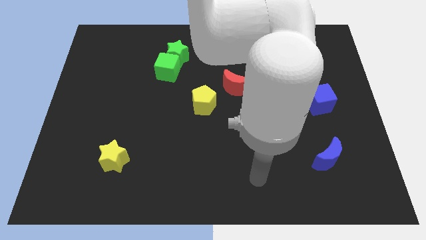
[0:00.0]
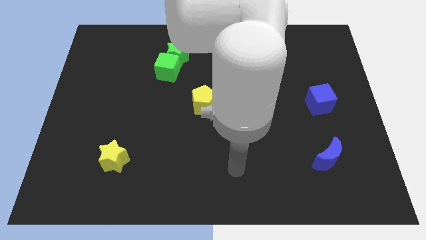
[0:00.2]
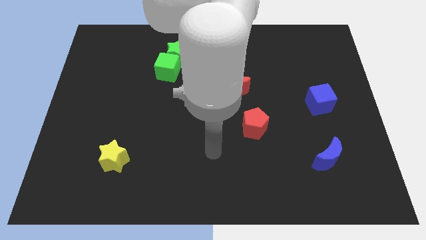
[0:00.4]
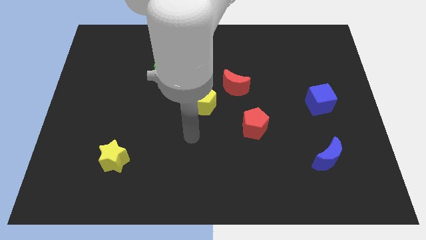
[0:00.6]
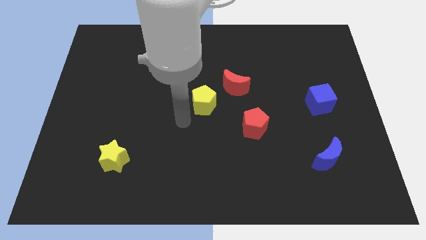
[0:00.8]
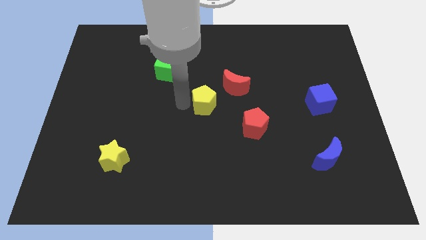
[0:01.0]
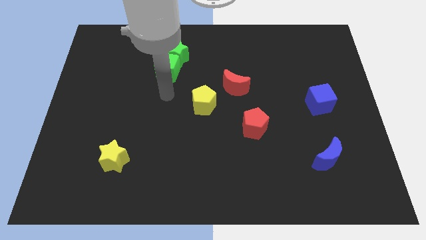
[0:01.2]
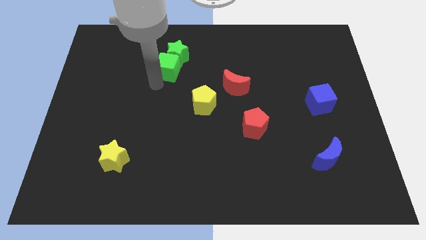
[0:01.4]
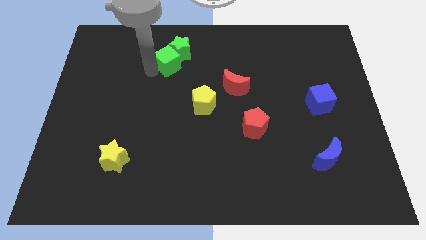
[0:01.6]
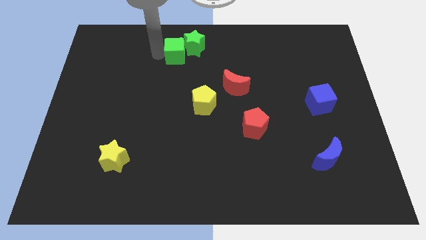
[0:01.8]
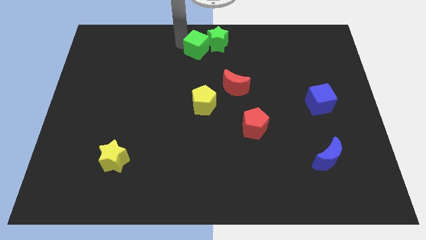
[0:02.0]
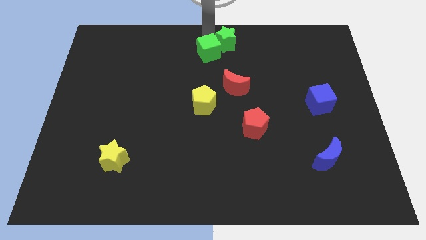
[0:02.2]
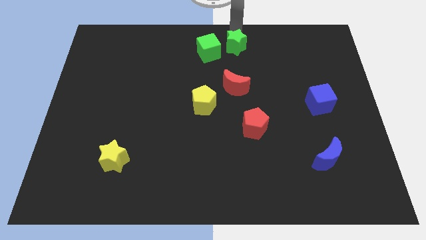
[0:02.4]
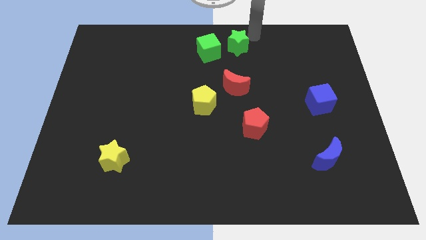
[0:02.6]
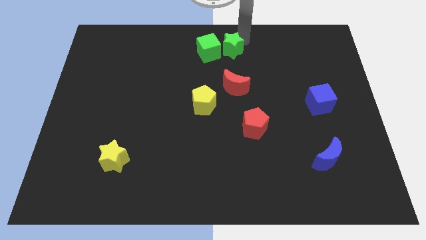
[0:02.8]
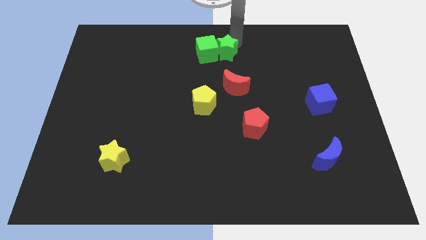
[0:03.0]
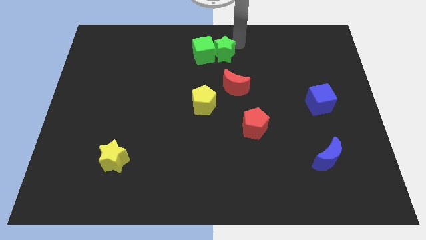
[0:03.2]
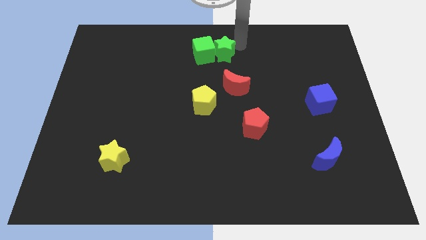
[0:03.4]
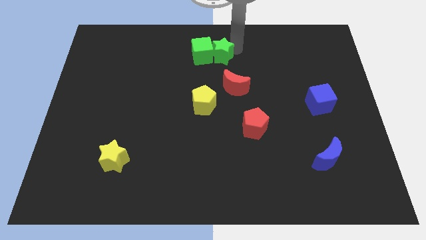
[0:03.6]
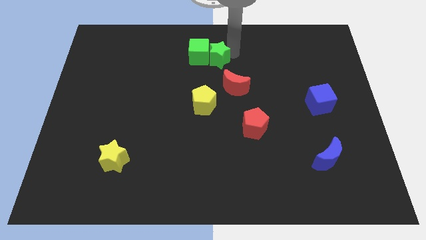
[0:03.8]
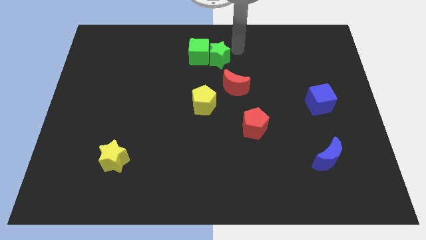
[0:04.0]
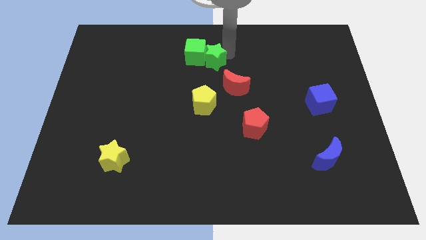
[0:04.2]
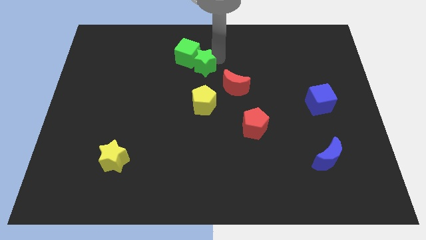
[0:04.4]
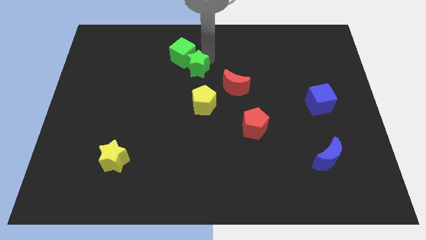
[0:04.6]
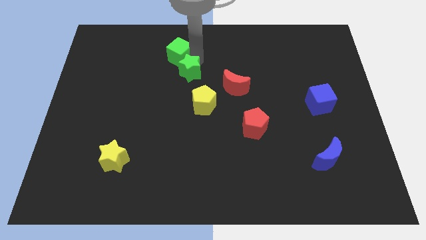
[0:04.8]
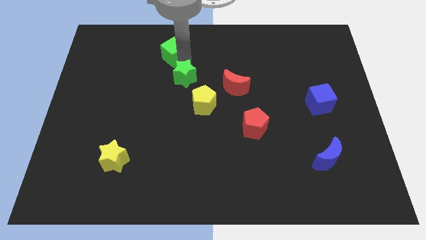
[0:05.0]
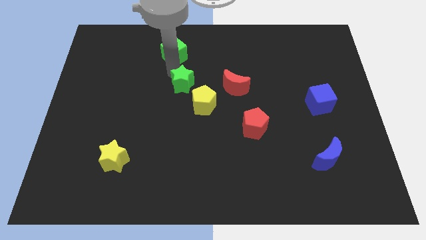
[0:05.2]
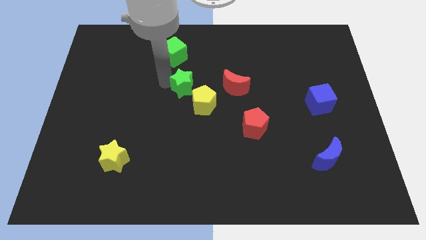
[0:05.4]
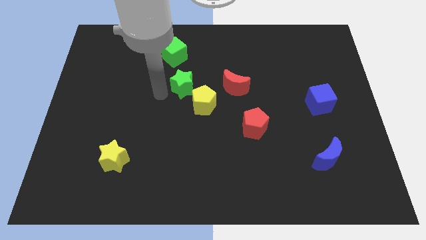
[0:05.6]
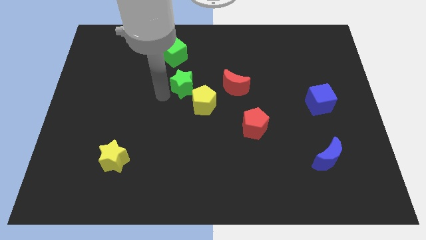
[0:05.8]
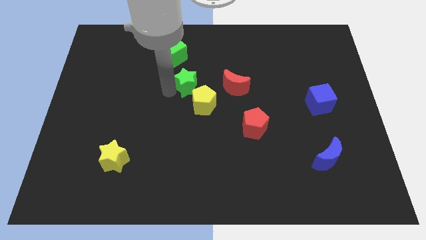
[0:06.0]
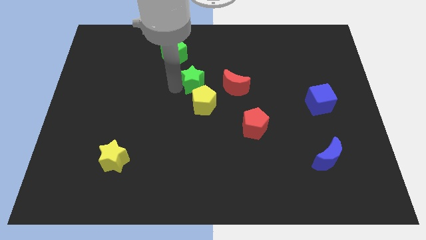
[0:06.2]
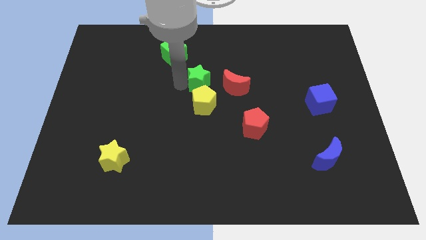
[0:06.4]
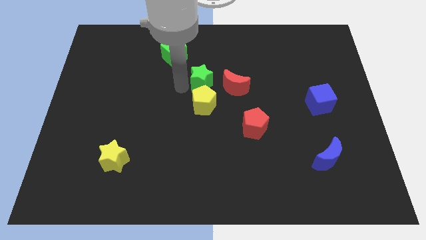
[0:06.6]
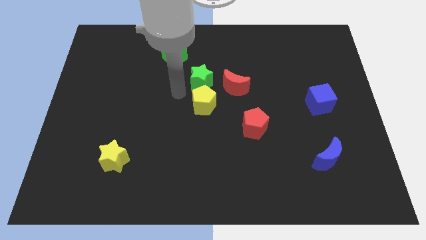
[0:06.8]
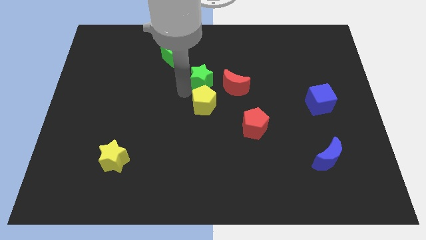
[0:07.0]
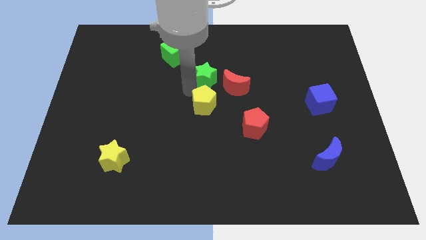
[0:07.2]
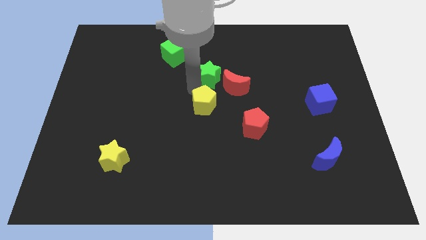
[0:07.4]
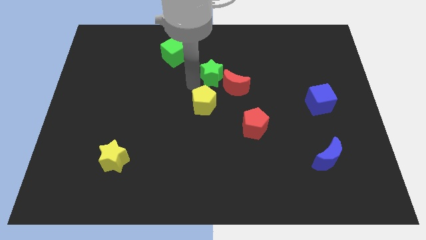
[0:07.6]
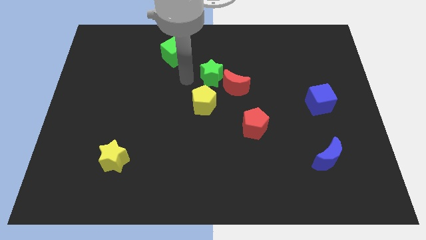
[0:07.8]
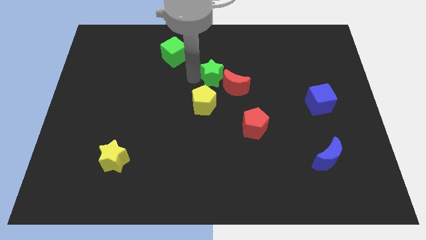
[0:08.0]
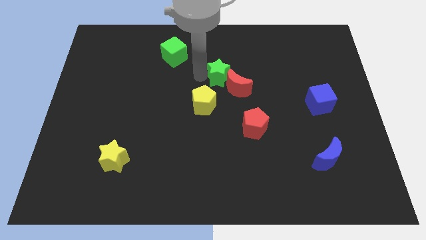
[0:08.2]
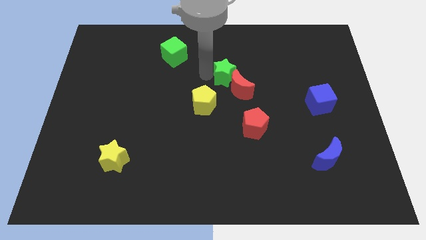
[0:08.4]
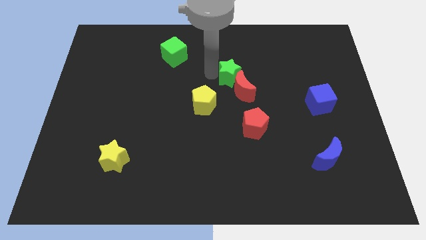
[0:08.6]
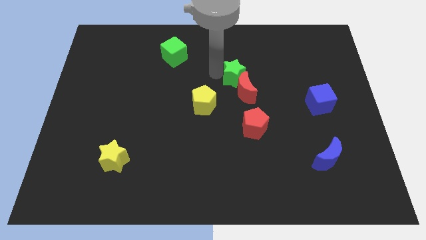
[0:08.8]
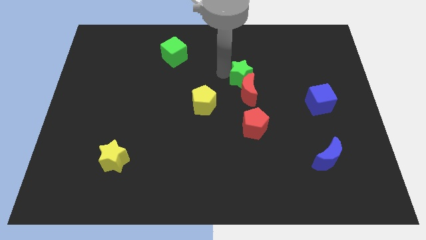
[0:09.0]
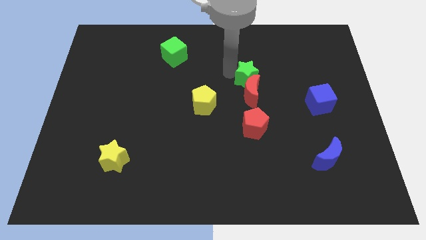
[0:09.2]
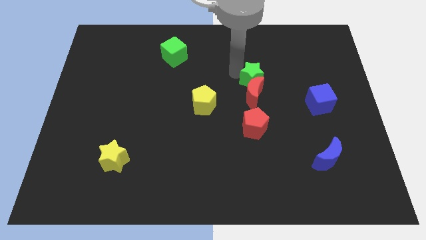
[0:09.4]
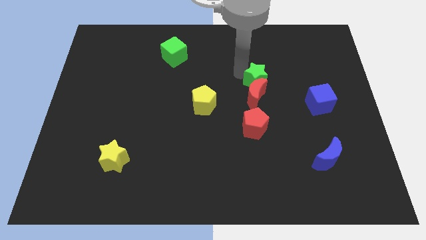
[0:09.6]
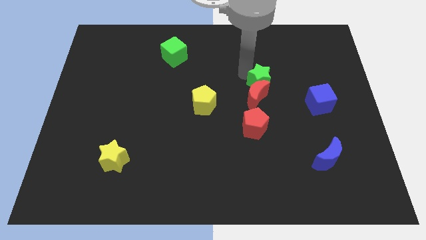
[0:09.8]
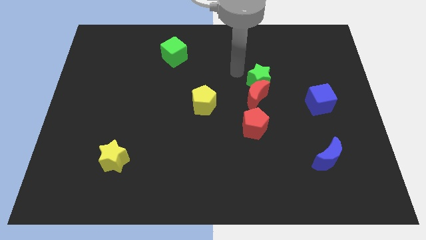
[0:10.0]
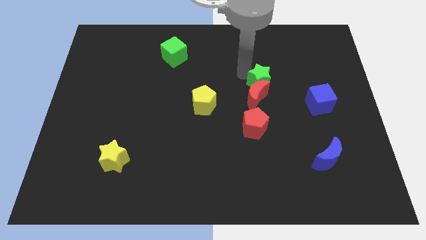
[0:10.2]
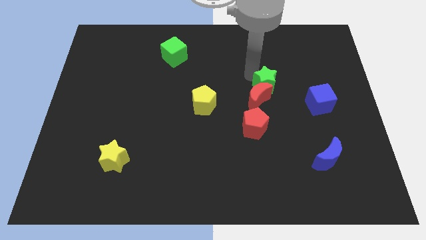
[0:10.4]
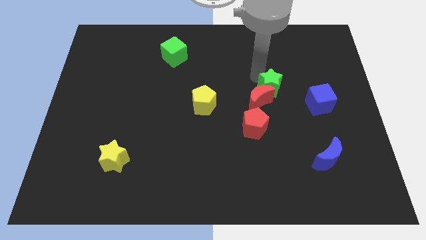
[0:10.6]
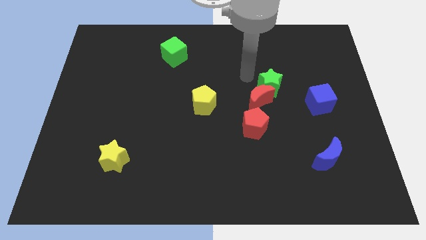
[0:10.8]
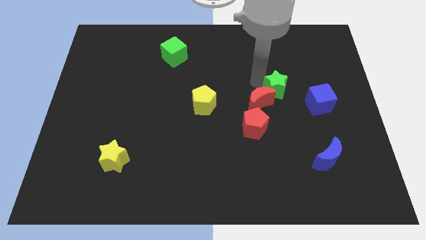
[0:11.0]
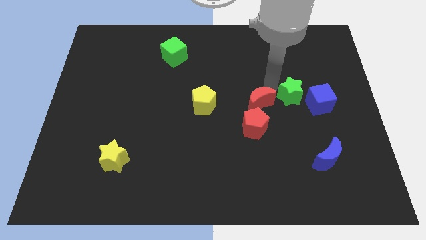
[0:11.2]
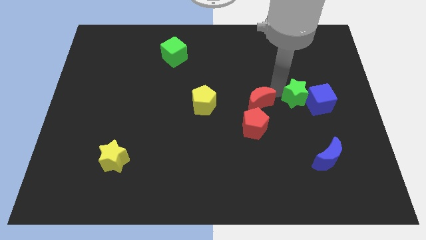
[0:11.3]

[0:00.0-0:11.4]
slide the green star close to the blue cube

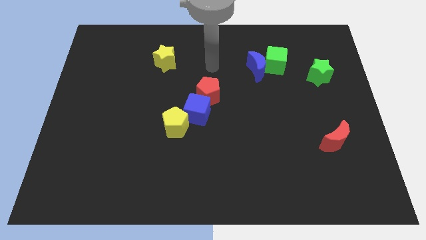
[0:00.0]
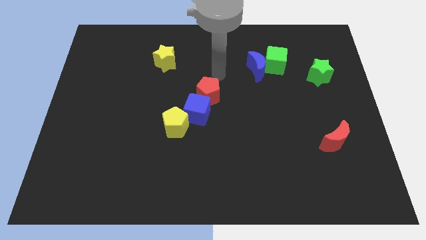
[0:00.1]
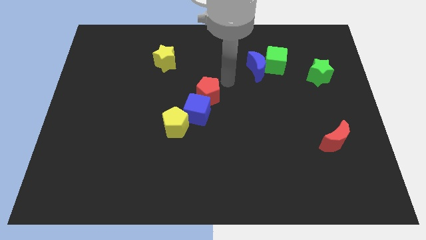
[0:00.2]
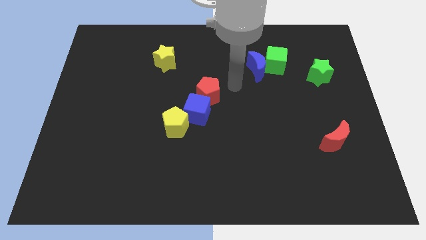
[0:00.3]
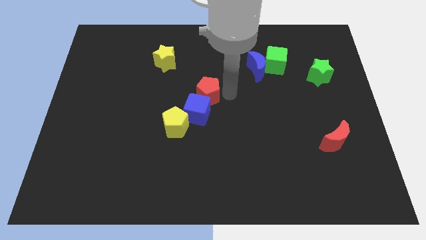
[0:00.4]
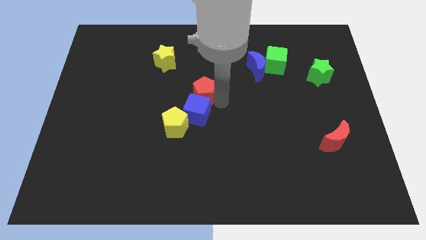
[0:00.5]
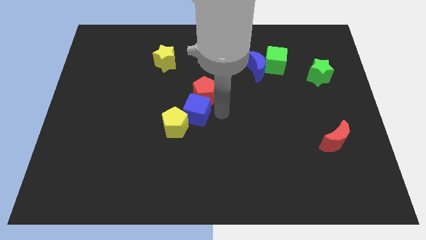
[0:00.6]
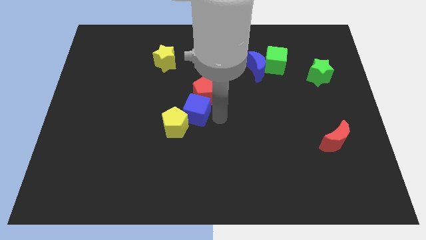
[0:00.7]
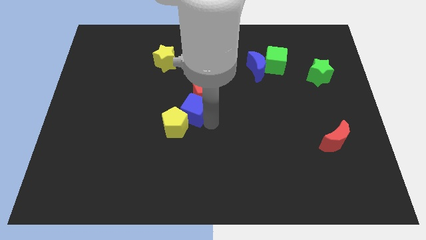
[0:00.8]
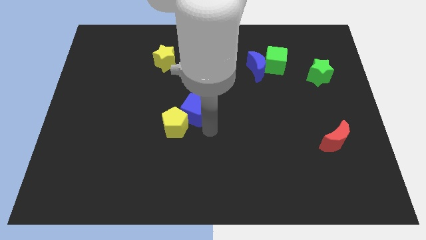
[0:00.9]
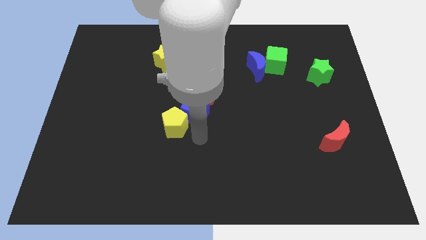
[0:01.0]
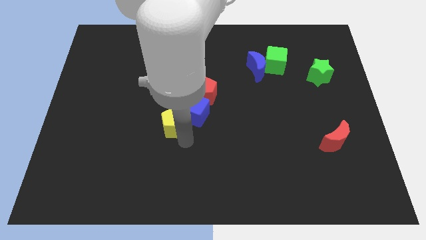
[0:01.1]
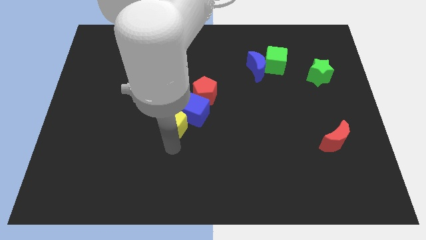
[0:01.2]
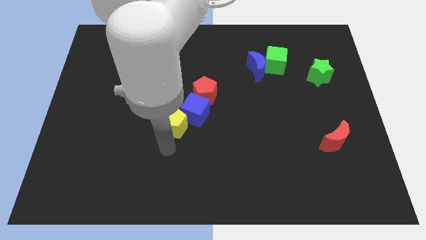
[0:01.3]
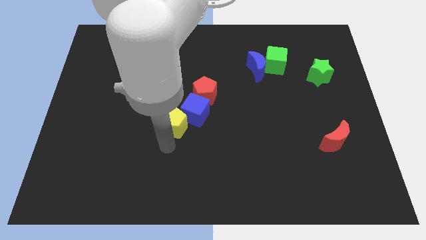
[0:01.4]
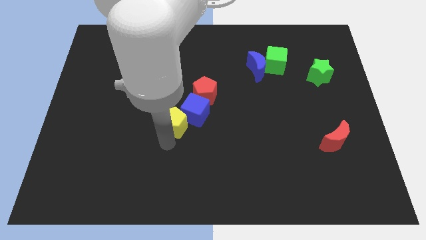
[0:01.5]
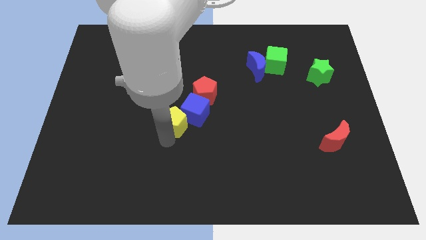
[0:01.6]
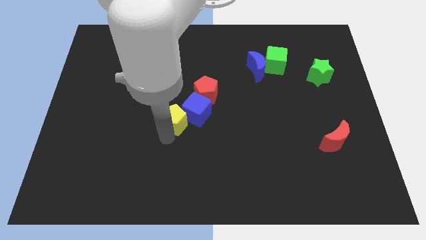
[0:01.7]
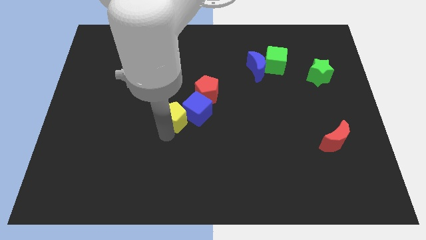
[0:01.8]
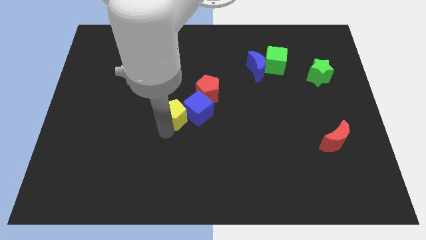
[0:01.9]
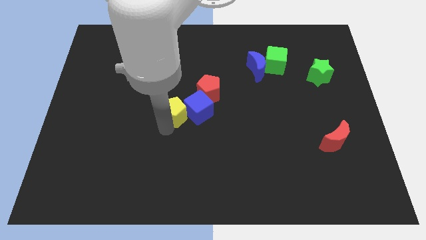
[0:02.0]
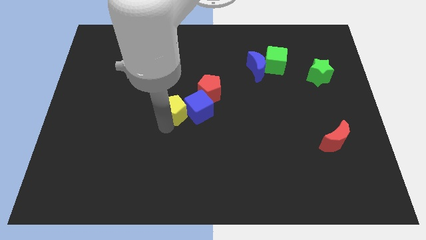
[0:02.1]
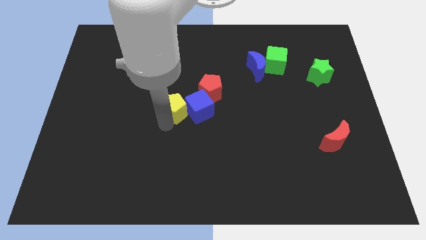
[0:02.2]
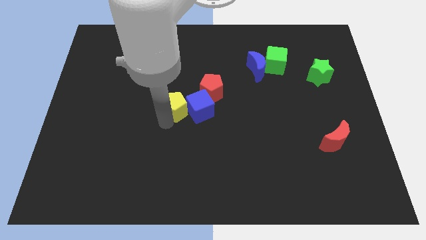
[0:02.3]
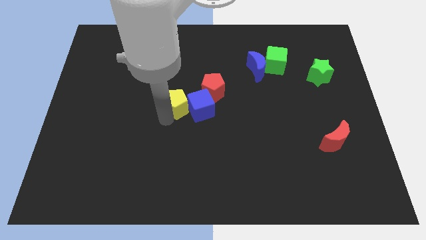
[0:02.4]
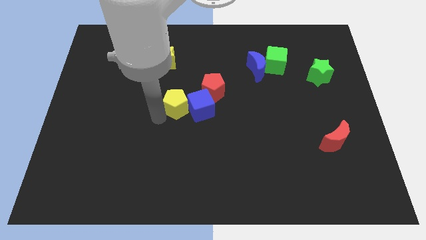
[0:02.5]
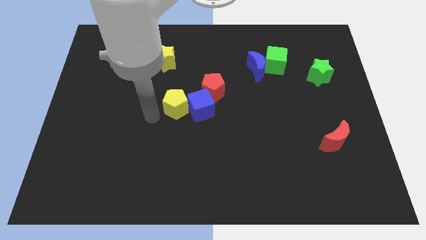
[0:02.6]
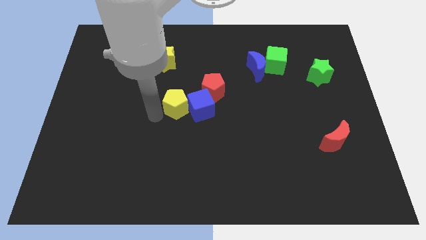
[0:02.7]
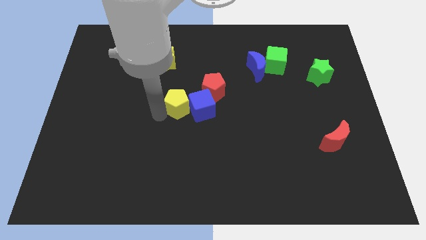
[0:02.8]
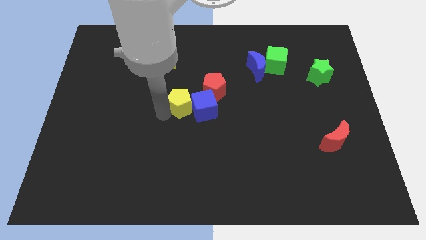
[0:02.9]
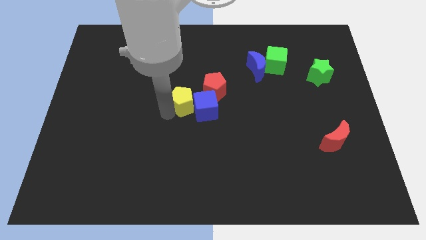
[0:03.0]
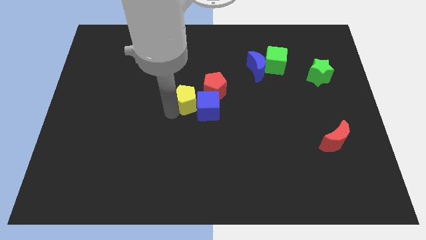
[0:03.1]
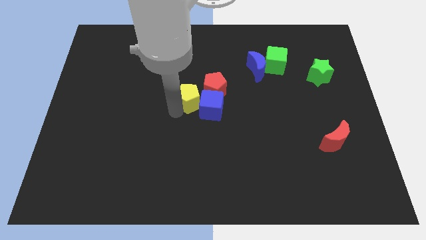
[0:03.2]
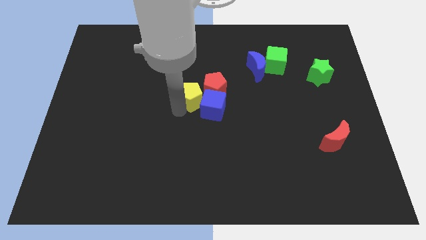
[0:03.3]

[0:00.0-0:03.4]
move the yellow pentagon towards the red pentagon
